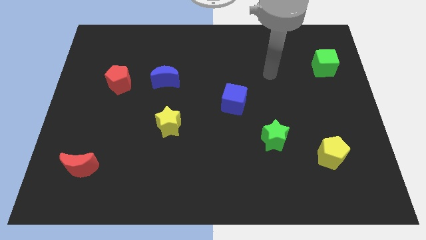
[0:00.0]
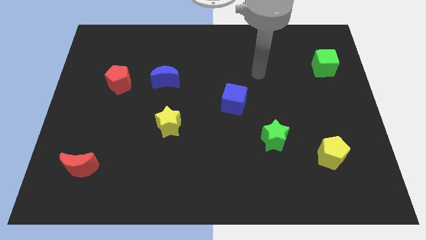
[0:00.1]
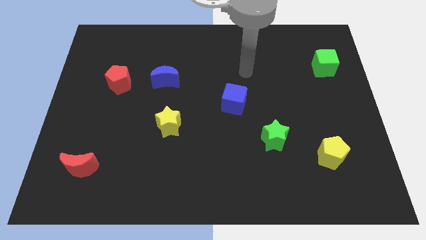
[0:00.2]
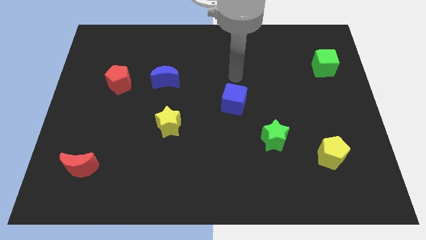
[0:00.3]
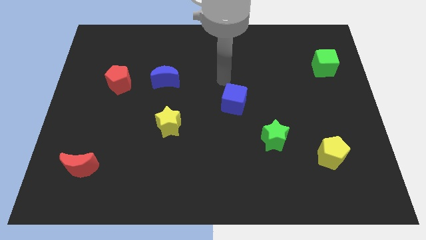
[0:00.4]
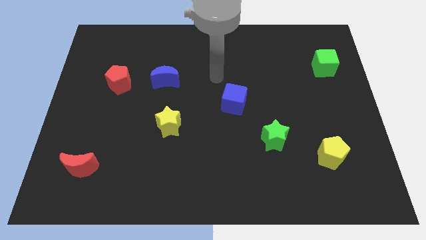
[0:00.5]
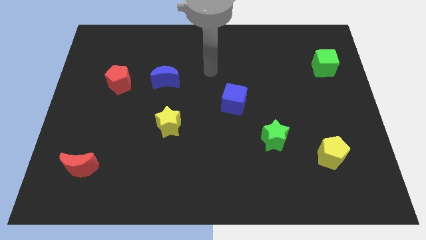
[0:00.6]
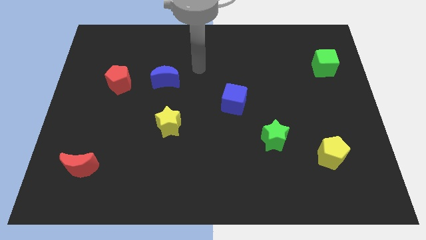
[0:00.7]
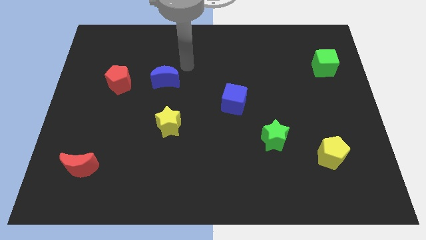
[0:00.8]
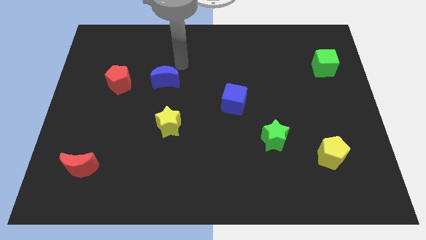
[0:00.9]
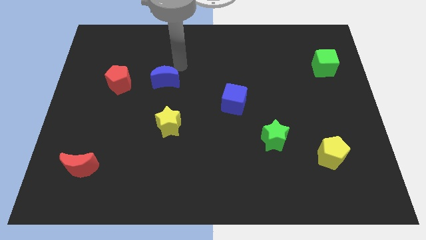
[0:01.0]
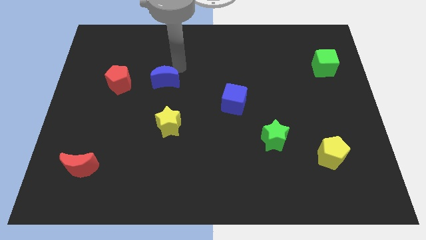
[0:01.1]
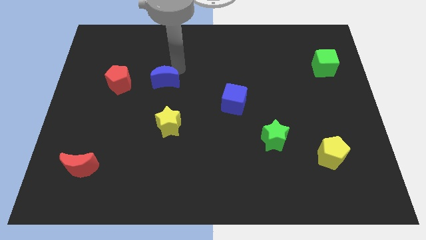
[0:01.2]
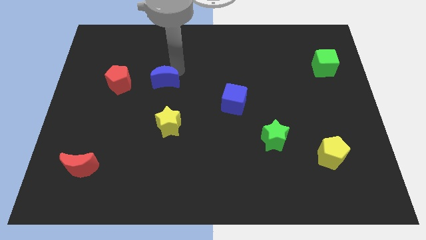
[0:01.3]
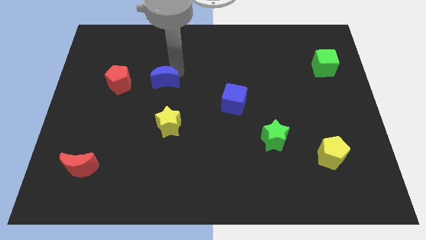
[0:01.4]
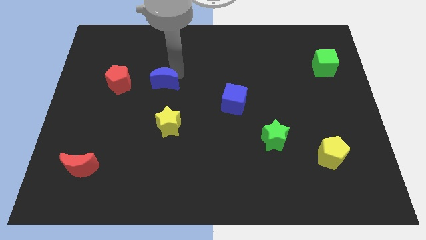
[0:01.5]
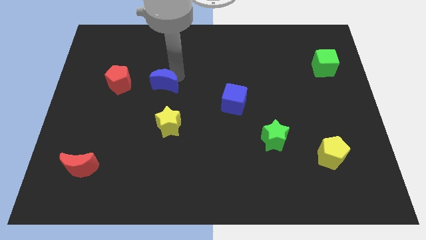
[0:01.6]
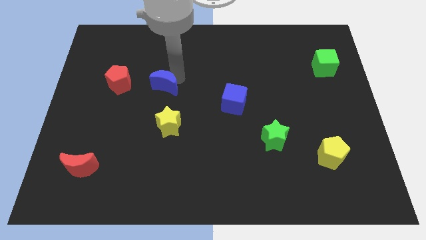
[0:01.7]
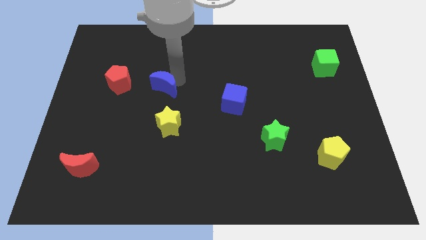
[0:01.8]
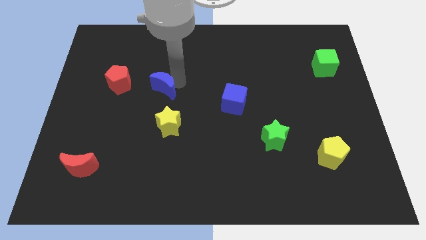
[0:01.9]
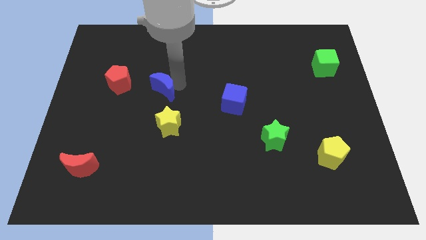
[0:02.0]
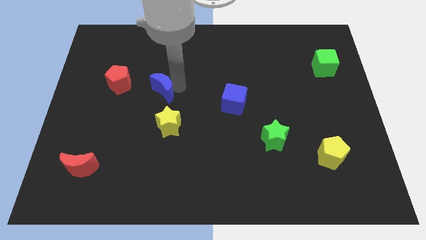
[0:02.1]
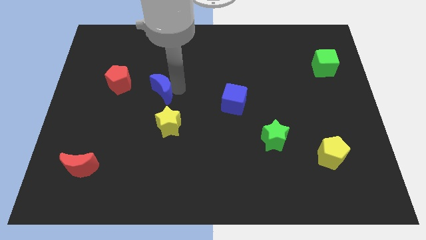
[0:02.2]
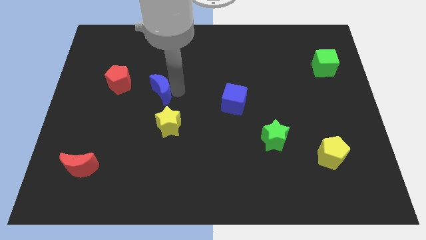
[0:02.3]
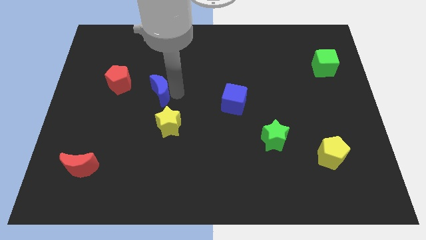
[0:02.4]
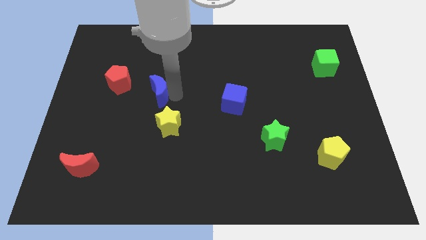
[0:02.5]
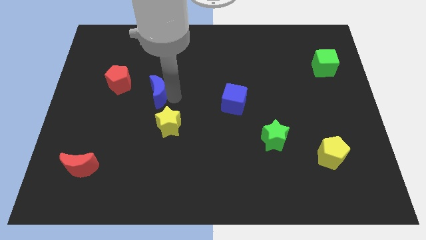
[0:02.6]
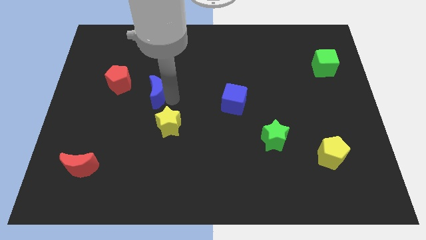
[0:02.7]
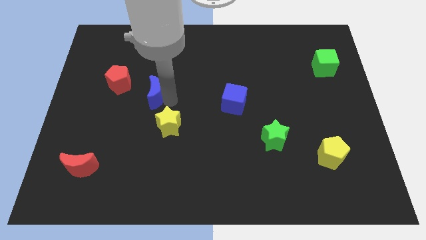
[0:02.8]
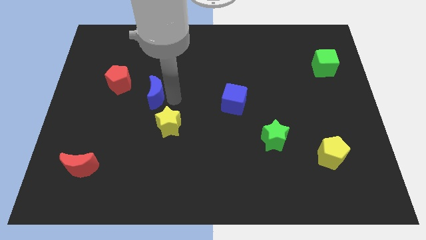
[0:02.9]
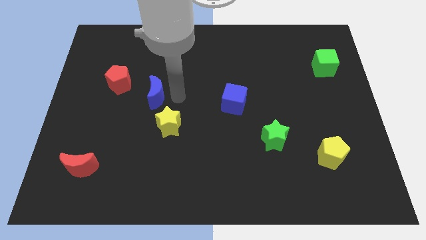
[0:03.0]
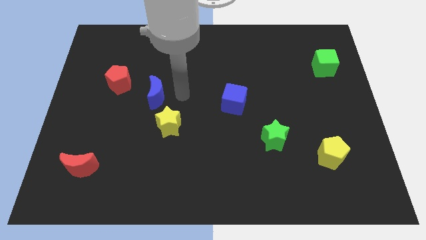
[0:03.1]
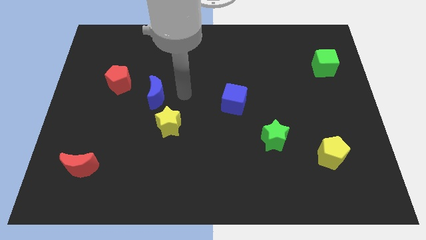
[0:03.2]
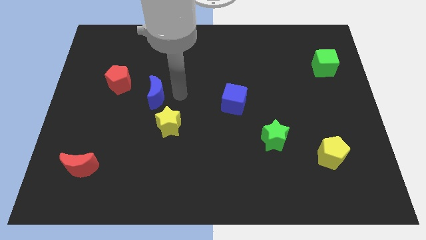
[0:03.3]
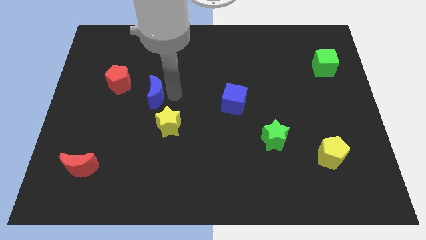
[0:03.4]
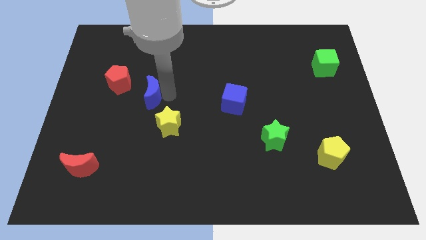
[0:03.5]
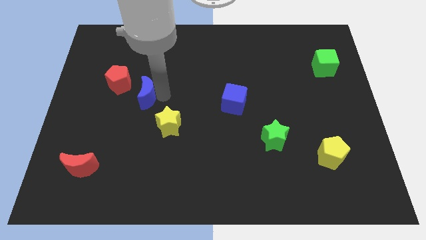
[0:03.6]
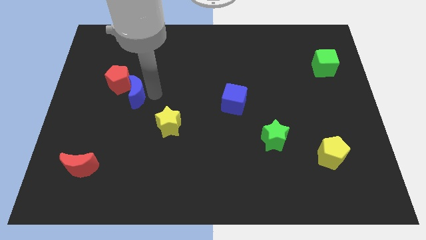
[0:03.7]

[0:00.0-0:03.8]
push the blue moon slightly downwards and then left

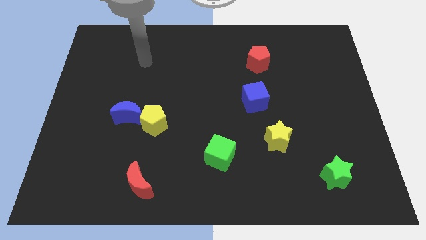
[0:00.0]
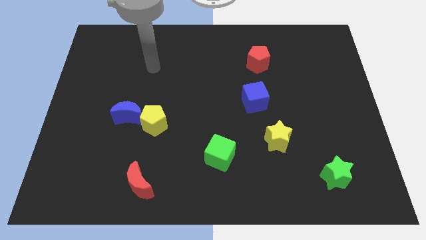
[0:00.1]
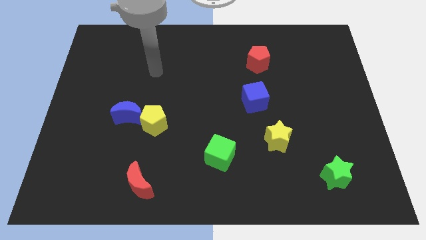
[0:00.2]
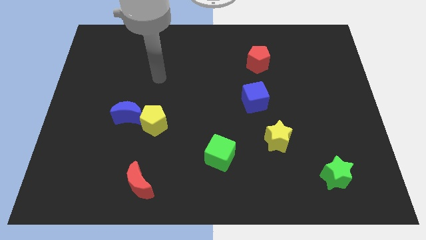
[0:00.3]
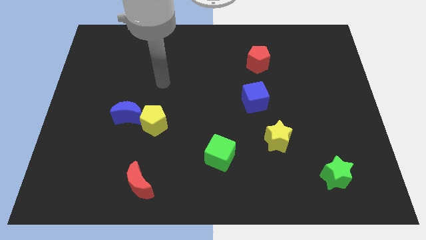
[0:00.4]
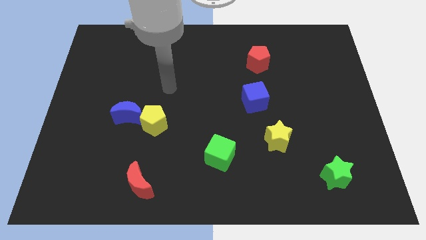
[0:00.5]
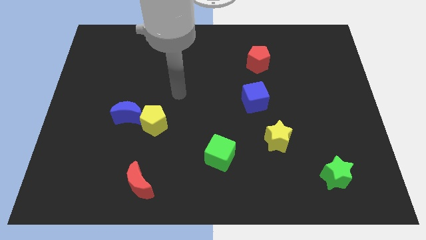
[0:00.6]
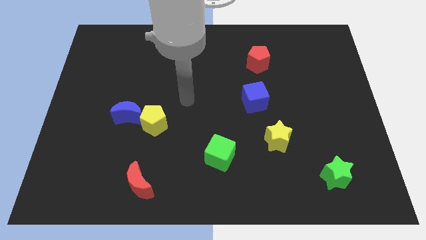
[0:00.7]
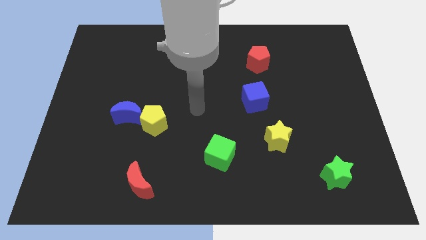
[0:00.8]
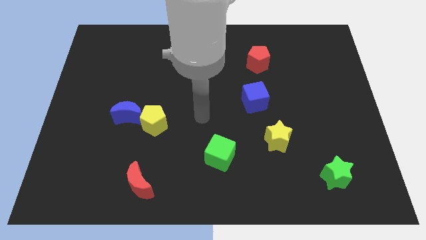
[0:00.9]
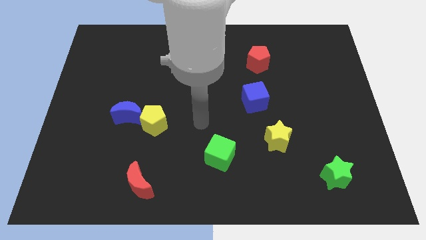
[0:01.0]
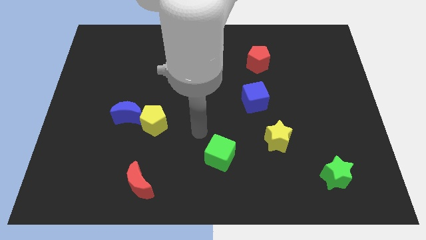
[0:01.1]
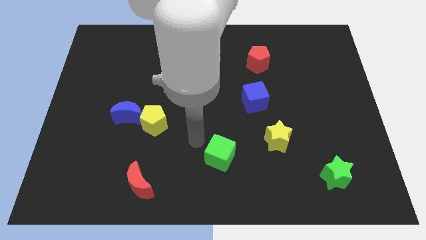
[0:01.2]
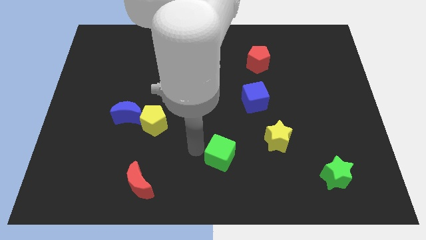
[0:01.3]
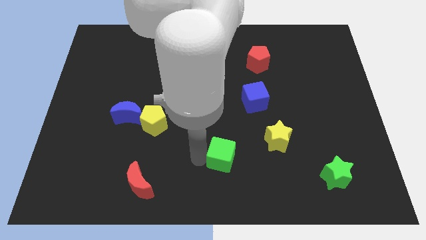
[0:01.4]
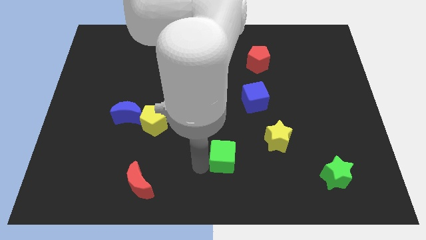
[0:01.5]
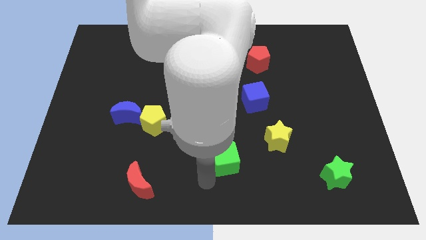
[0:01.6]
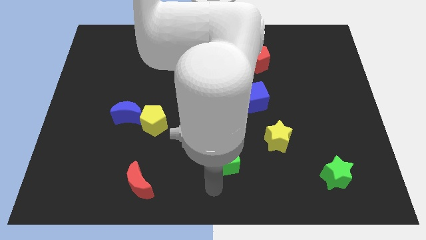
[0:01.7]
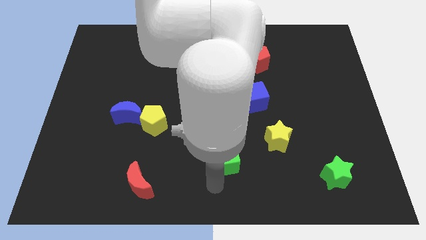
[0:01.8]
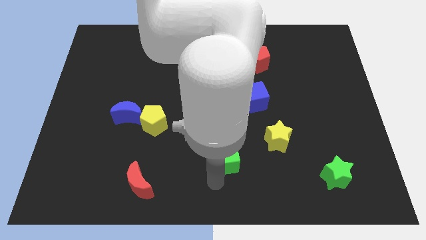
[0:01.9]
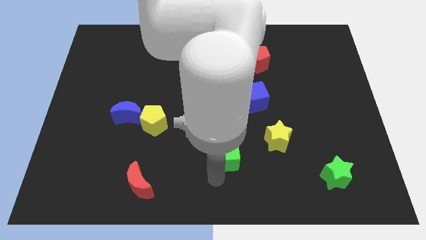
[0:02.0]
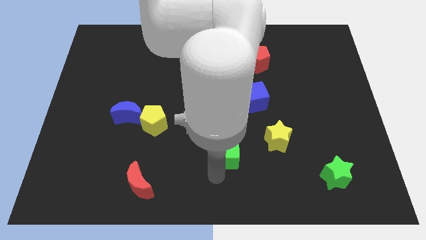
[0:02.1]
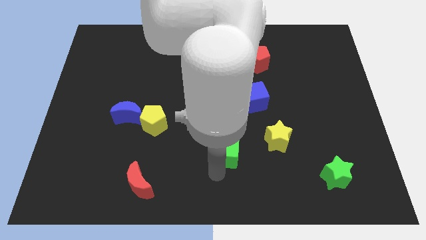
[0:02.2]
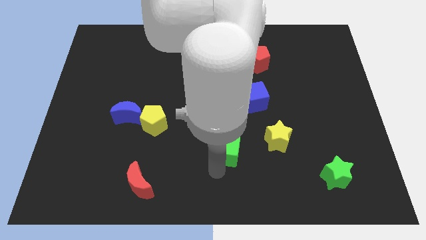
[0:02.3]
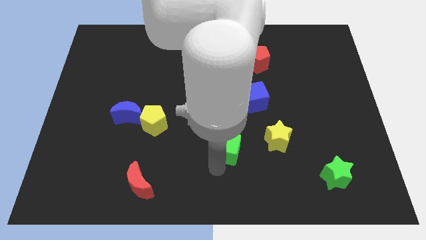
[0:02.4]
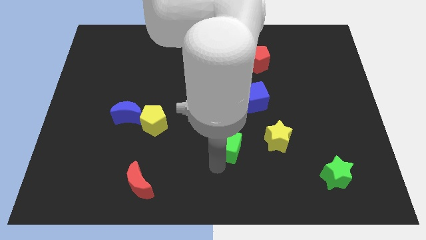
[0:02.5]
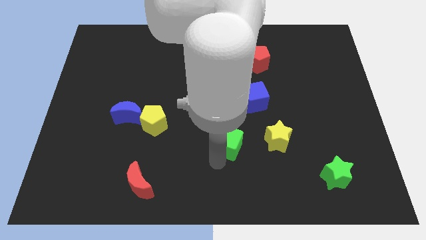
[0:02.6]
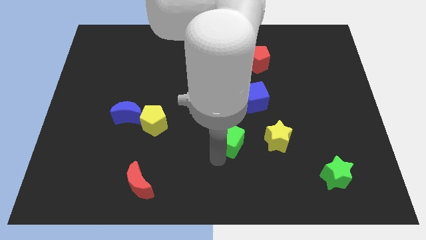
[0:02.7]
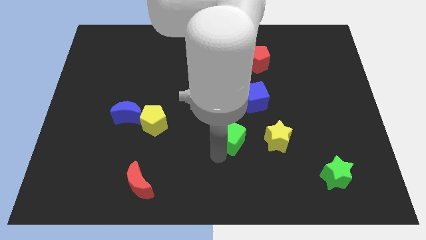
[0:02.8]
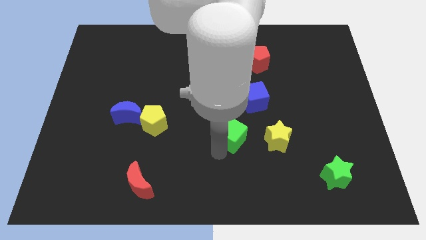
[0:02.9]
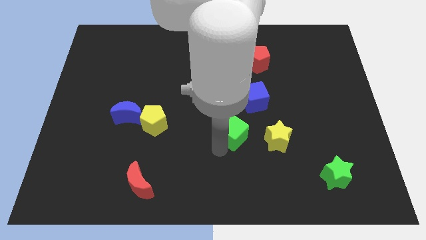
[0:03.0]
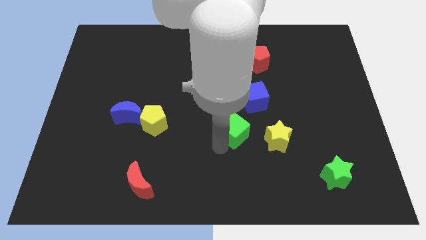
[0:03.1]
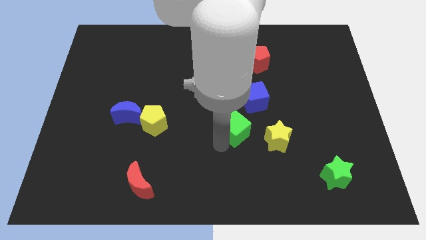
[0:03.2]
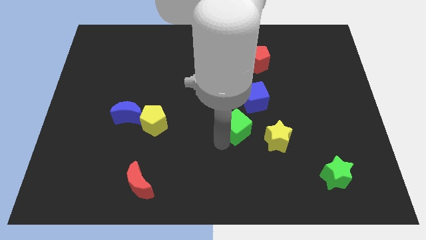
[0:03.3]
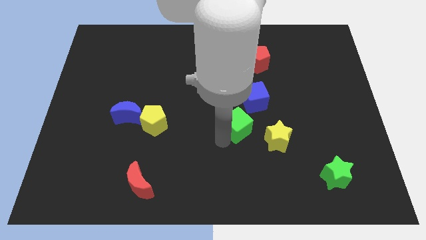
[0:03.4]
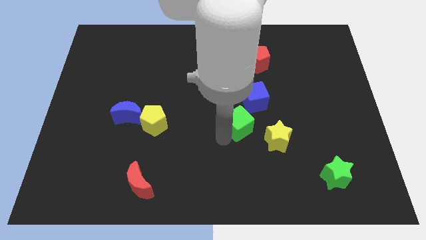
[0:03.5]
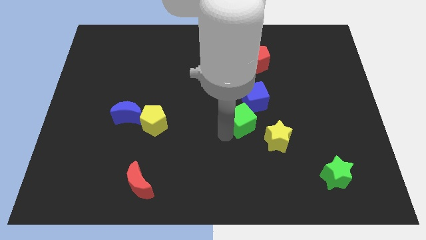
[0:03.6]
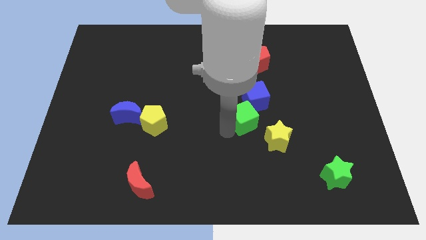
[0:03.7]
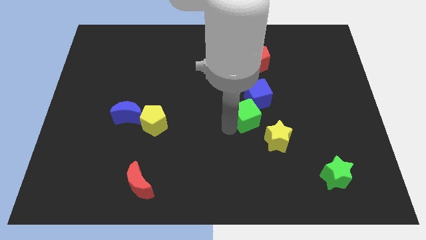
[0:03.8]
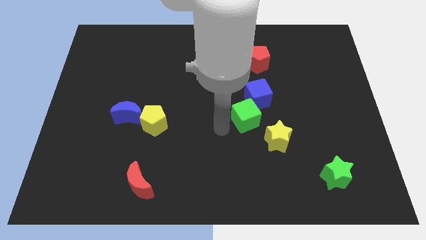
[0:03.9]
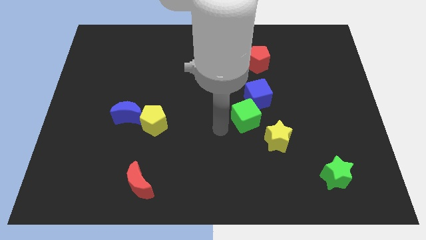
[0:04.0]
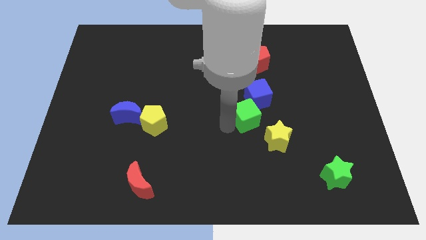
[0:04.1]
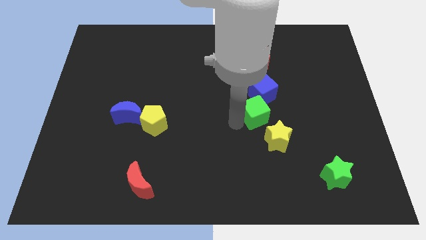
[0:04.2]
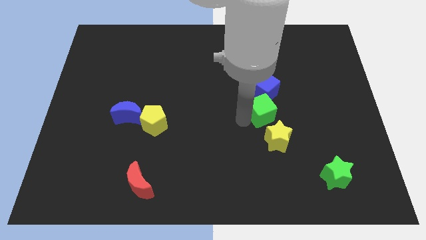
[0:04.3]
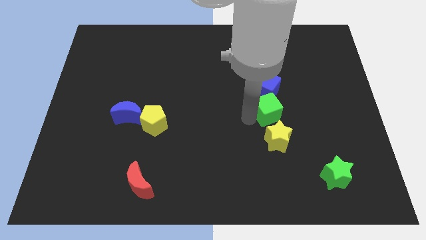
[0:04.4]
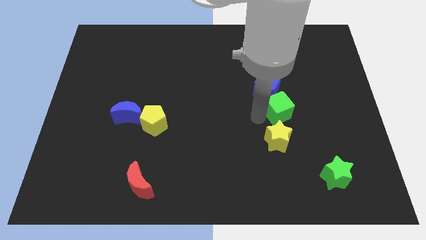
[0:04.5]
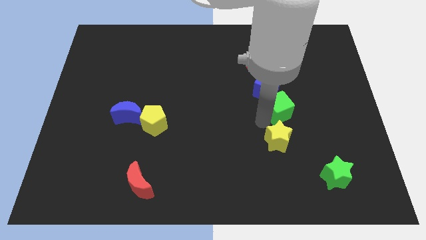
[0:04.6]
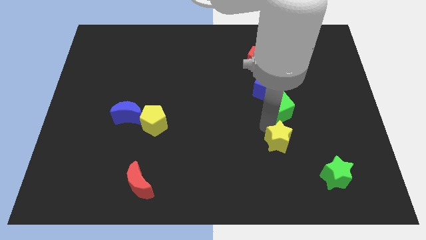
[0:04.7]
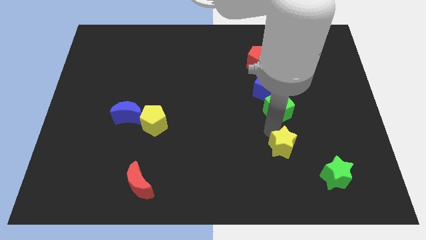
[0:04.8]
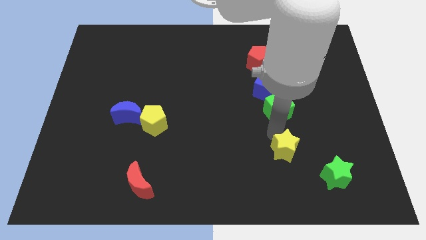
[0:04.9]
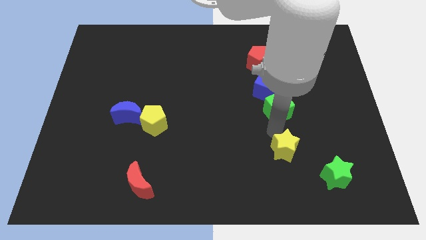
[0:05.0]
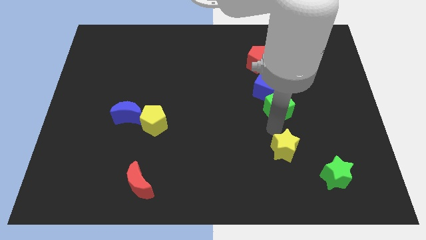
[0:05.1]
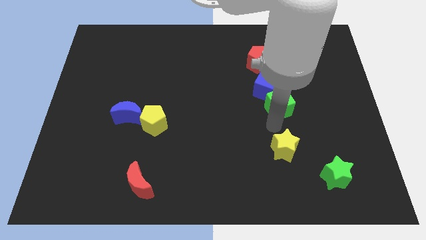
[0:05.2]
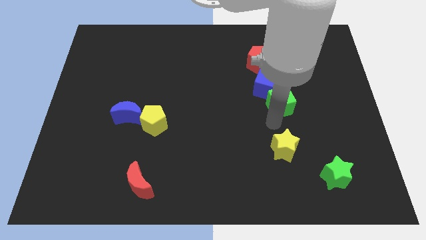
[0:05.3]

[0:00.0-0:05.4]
slide the green cube up and right diagonally
